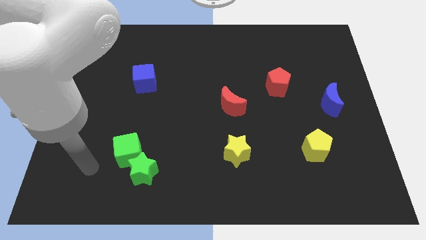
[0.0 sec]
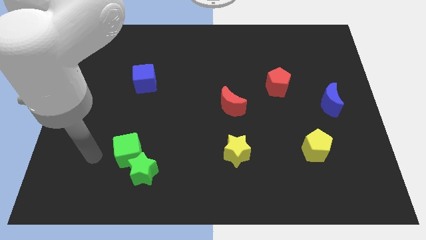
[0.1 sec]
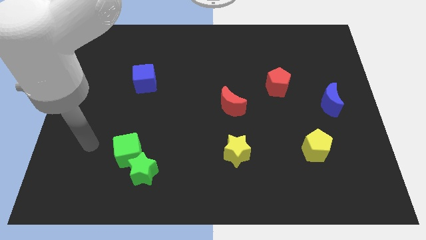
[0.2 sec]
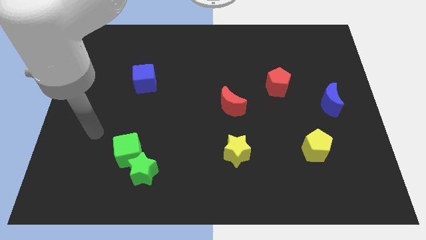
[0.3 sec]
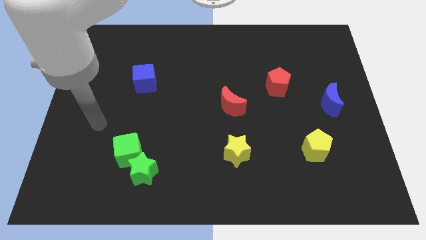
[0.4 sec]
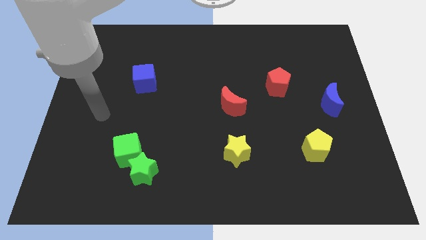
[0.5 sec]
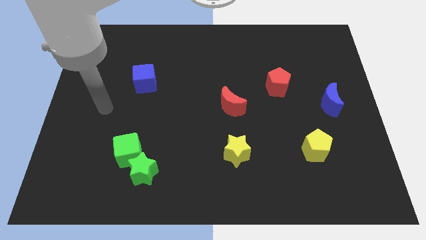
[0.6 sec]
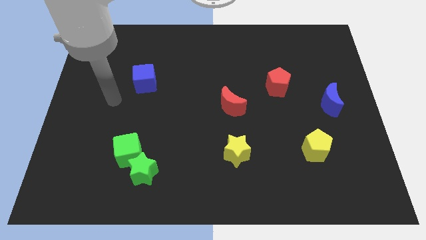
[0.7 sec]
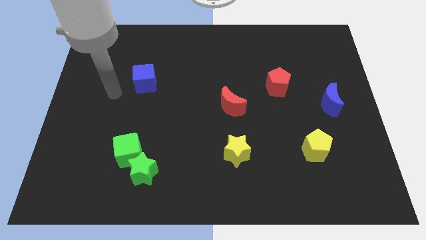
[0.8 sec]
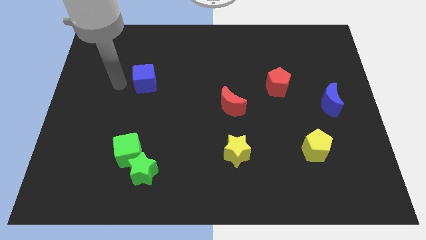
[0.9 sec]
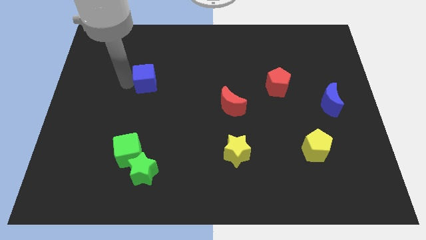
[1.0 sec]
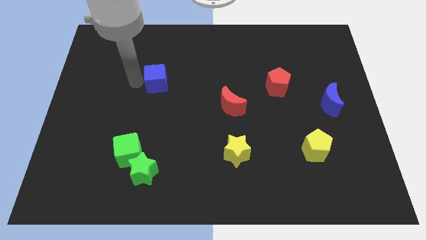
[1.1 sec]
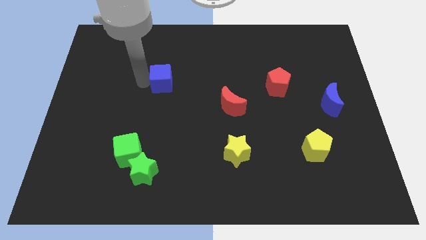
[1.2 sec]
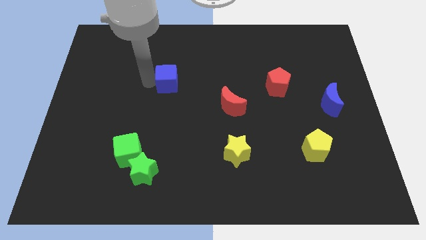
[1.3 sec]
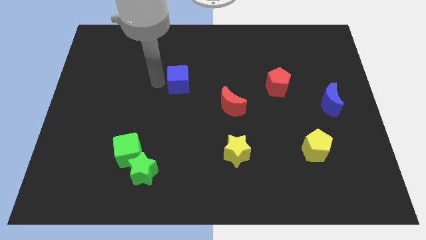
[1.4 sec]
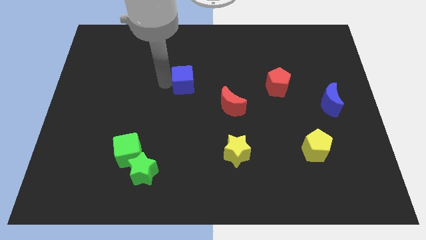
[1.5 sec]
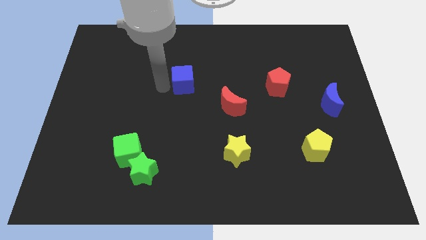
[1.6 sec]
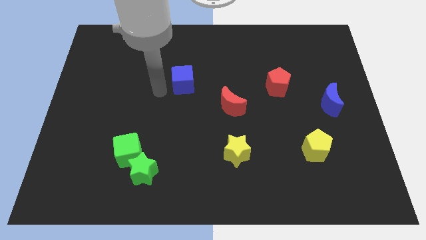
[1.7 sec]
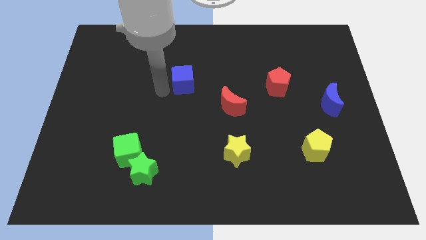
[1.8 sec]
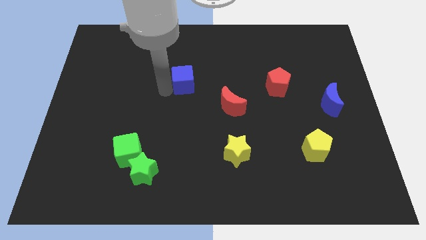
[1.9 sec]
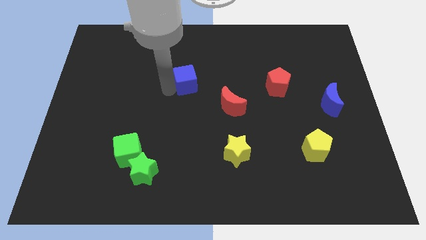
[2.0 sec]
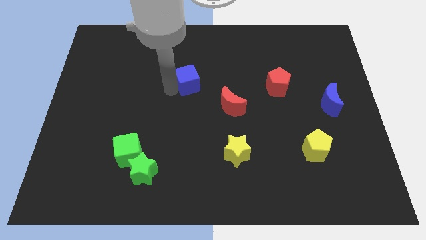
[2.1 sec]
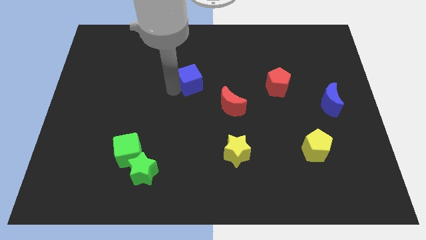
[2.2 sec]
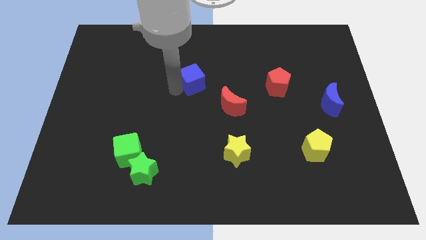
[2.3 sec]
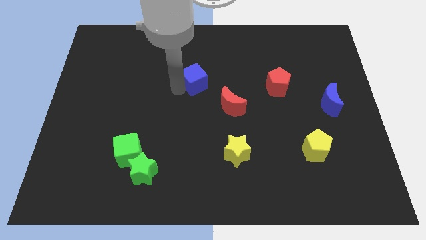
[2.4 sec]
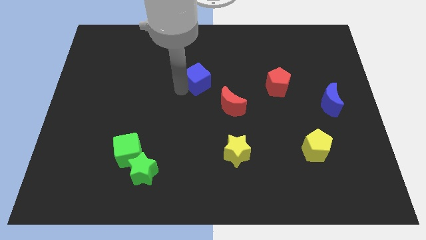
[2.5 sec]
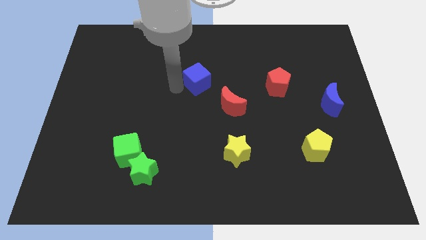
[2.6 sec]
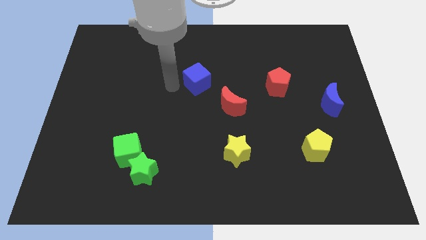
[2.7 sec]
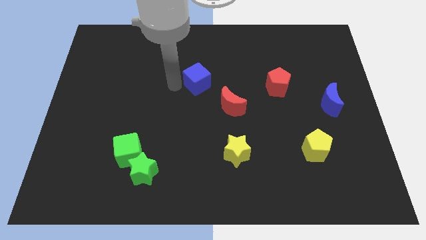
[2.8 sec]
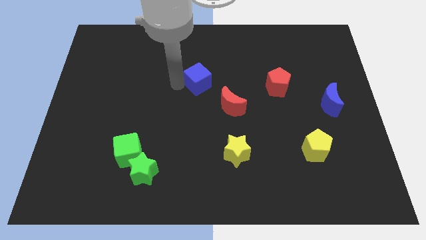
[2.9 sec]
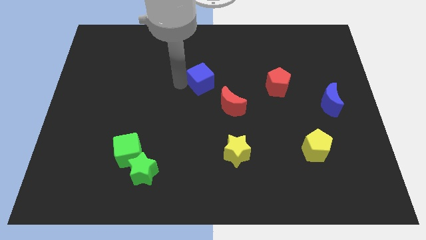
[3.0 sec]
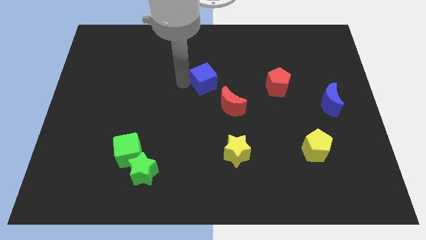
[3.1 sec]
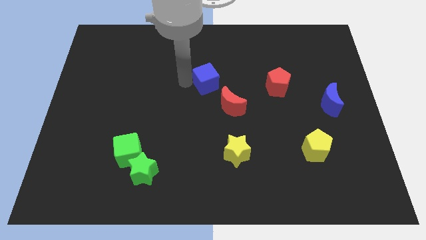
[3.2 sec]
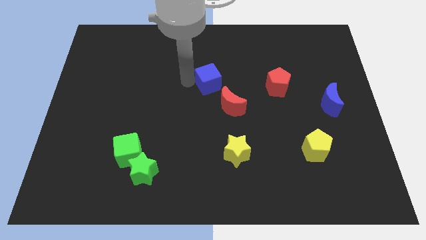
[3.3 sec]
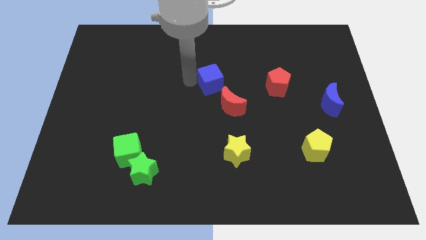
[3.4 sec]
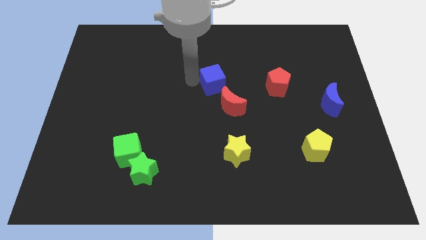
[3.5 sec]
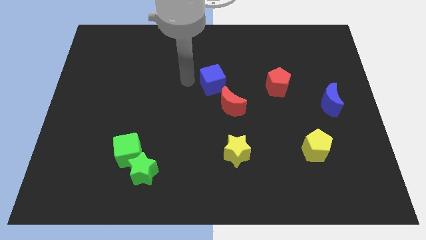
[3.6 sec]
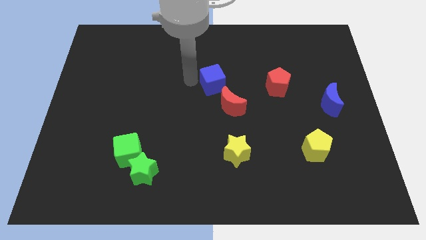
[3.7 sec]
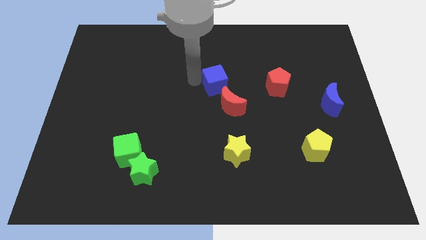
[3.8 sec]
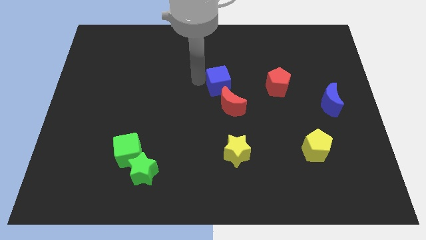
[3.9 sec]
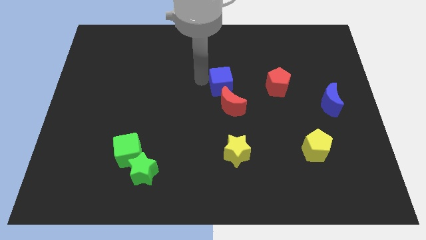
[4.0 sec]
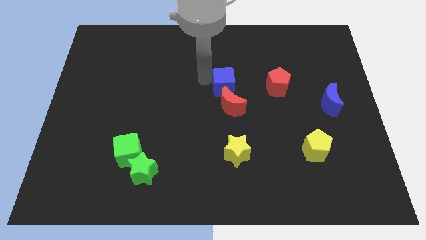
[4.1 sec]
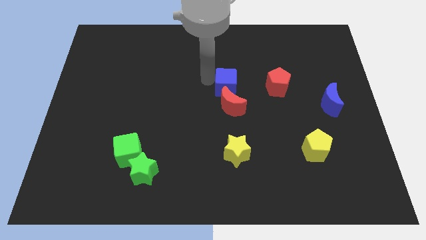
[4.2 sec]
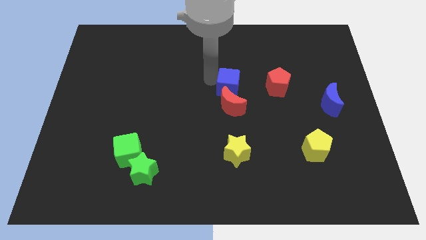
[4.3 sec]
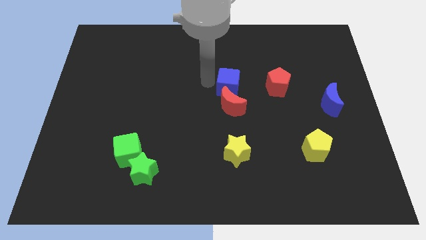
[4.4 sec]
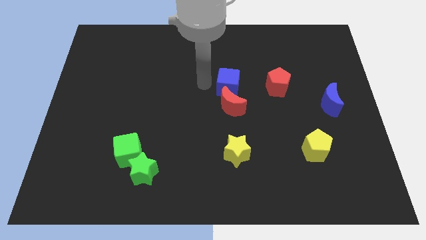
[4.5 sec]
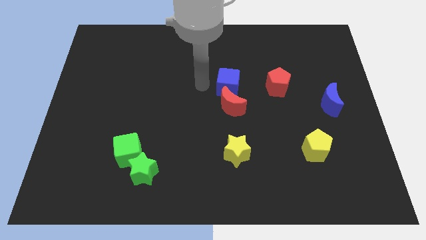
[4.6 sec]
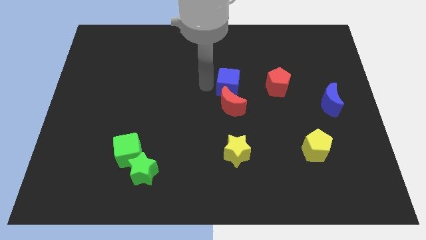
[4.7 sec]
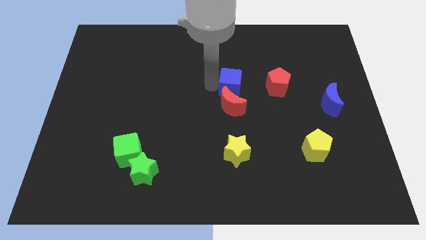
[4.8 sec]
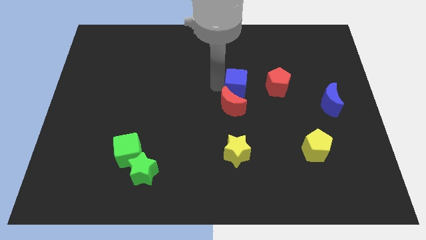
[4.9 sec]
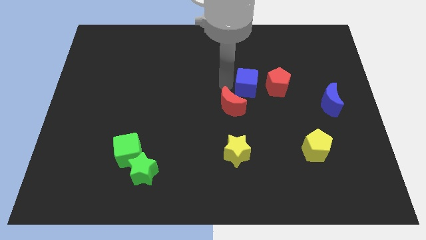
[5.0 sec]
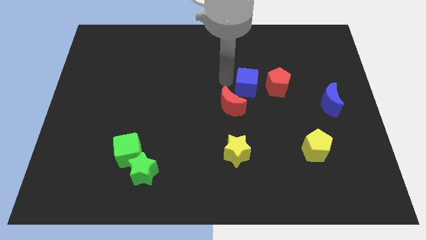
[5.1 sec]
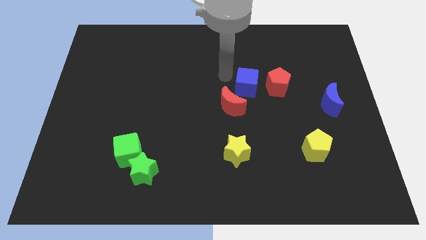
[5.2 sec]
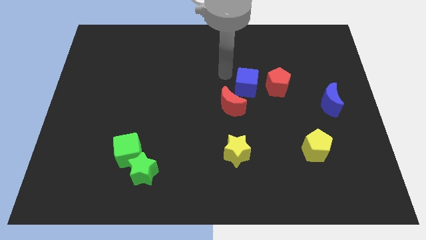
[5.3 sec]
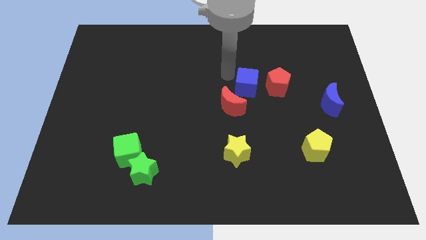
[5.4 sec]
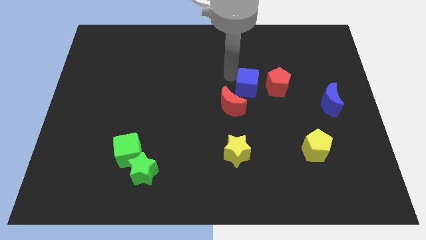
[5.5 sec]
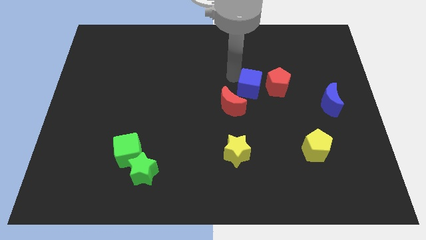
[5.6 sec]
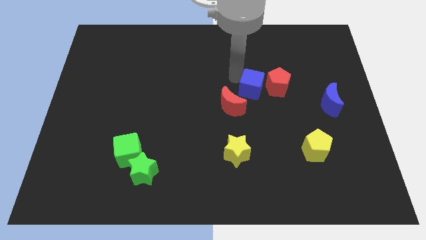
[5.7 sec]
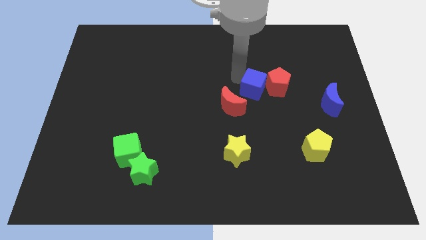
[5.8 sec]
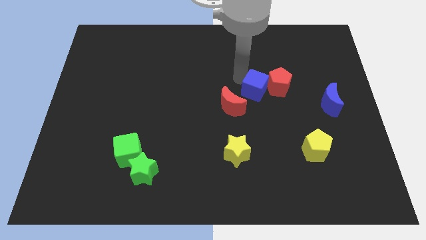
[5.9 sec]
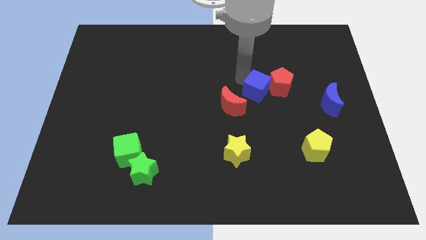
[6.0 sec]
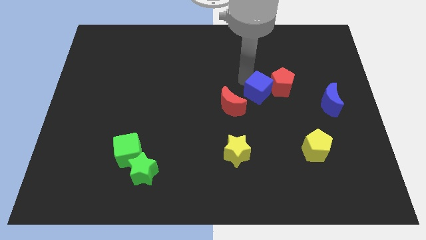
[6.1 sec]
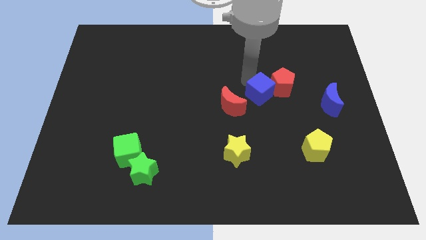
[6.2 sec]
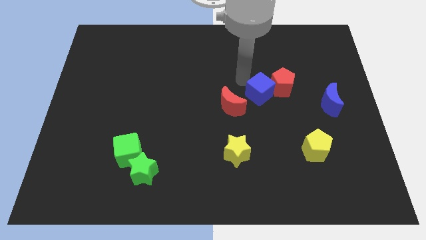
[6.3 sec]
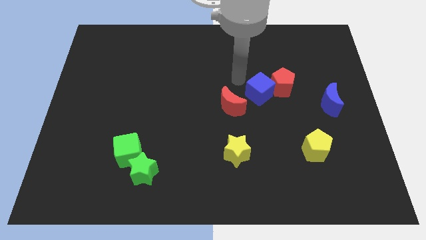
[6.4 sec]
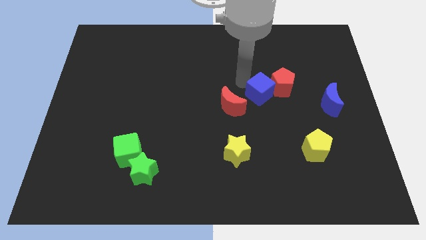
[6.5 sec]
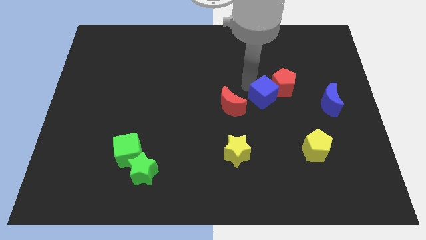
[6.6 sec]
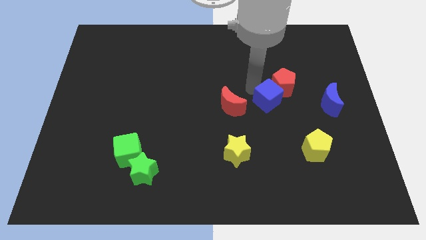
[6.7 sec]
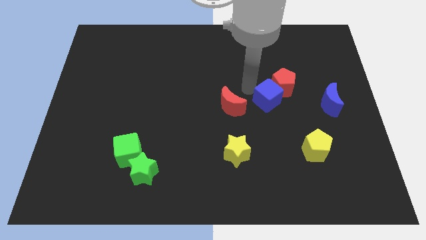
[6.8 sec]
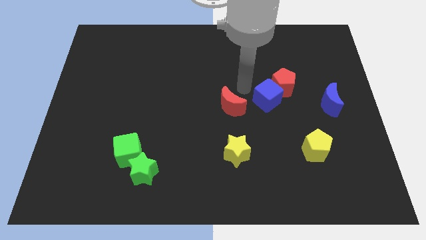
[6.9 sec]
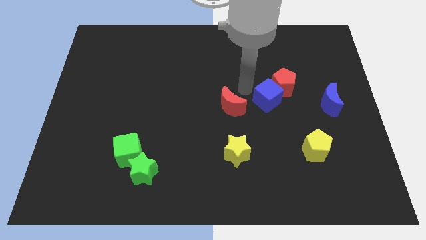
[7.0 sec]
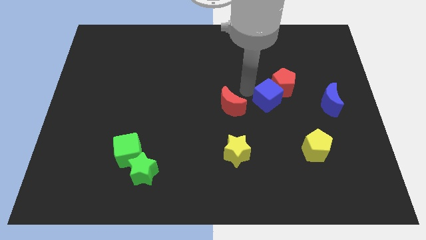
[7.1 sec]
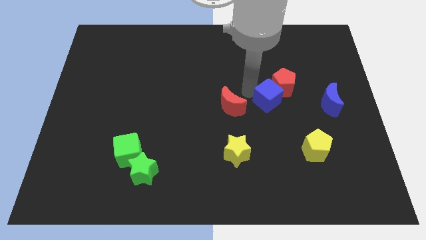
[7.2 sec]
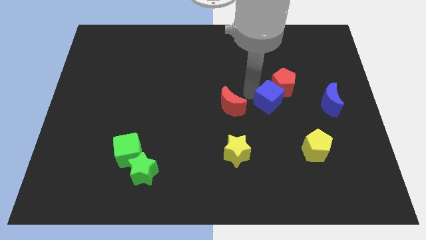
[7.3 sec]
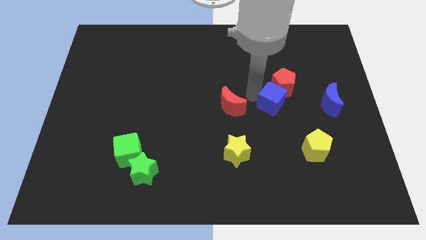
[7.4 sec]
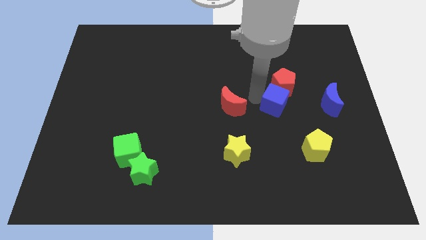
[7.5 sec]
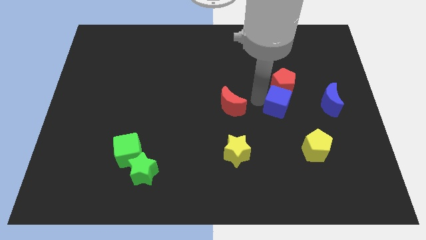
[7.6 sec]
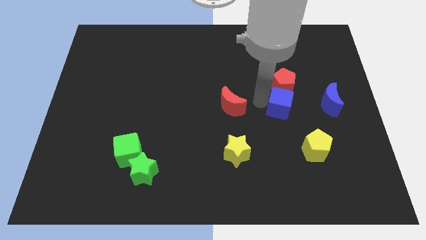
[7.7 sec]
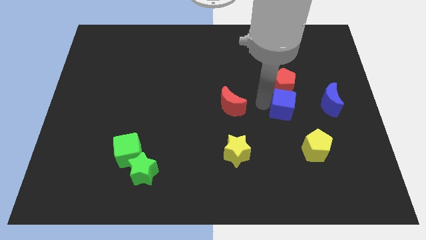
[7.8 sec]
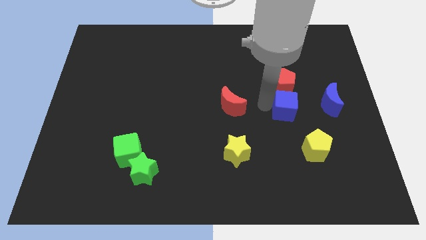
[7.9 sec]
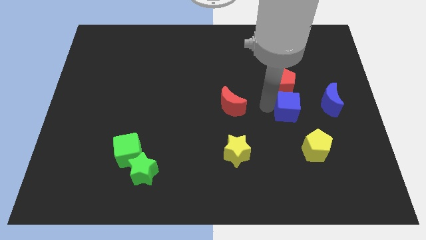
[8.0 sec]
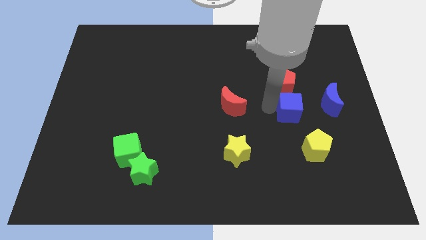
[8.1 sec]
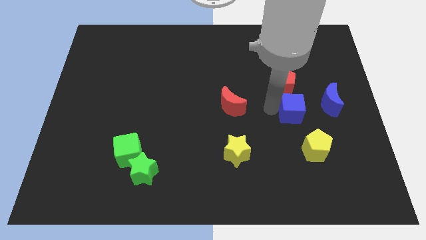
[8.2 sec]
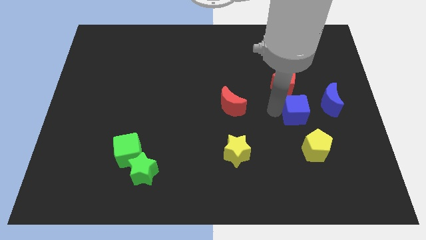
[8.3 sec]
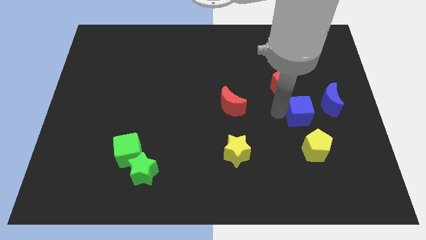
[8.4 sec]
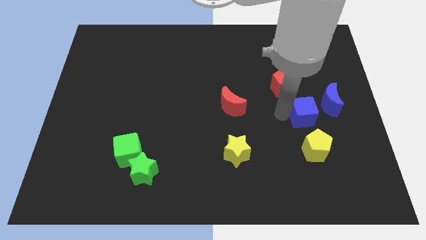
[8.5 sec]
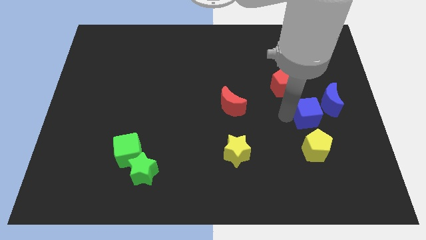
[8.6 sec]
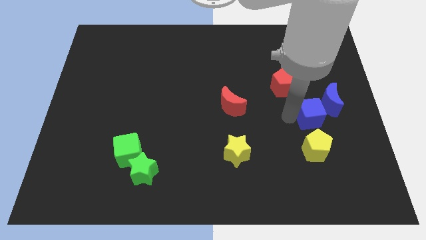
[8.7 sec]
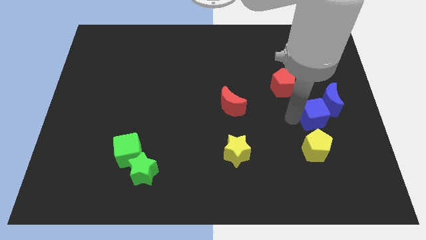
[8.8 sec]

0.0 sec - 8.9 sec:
slide the blue cube next to the blue moon
